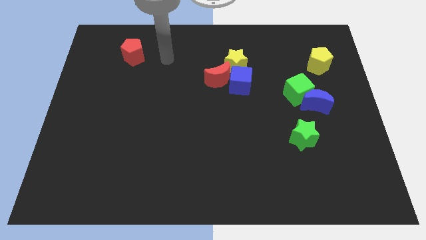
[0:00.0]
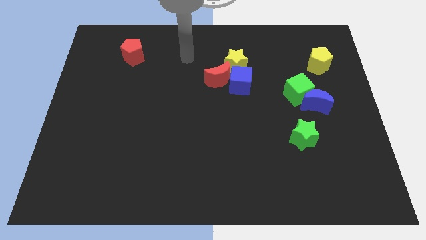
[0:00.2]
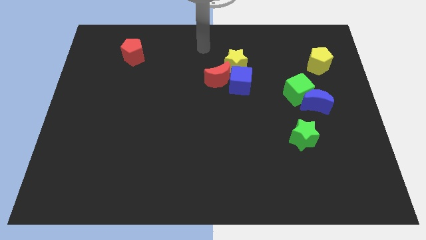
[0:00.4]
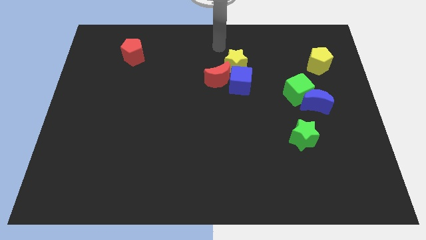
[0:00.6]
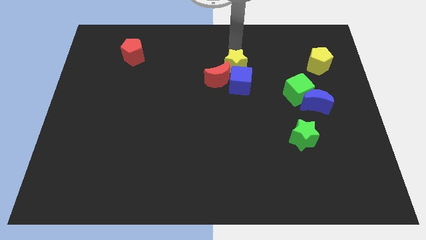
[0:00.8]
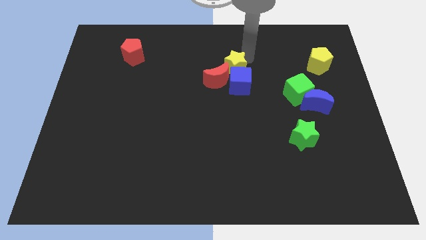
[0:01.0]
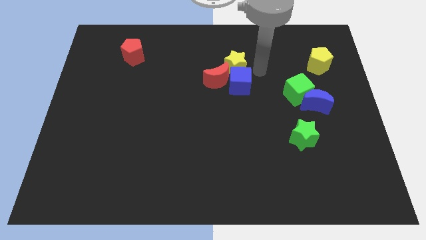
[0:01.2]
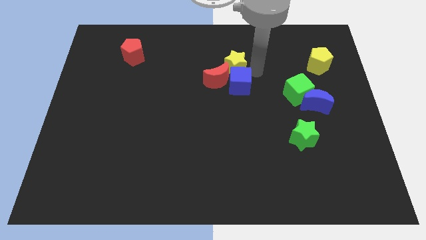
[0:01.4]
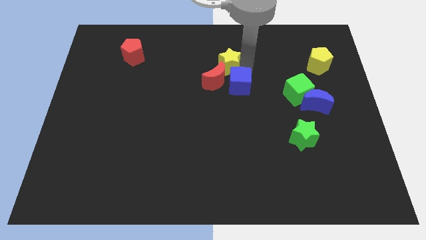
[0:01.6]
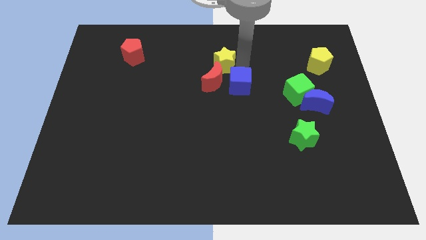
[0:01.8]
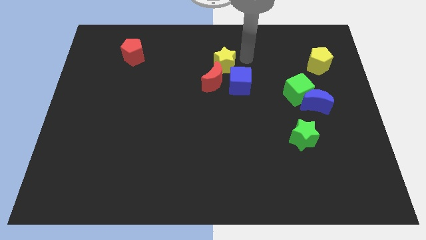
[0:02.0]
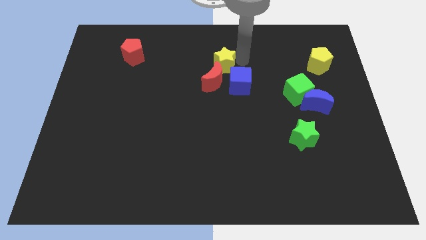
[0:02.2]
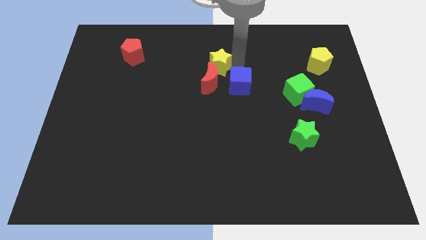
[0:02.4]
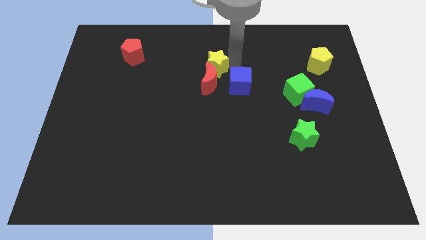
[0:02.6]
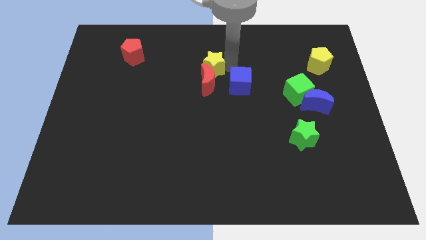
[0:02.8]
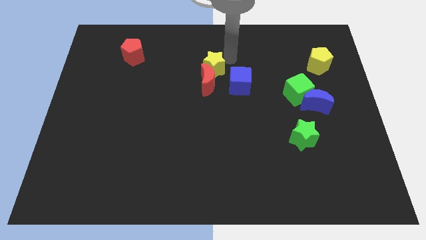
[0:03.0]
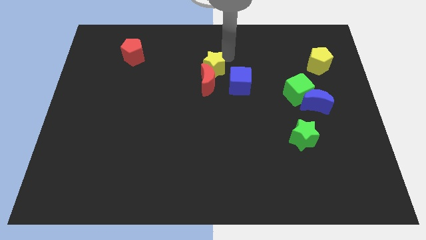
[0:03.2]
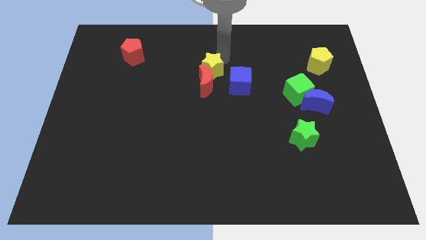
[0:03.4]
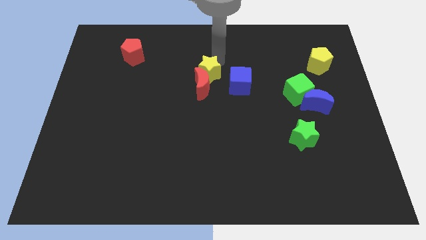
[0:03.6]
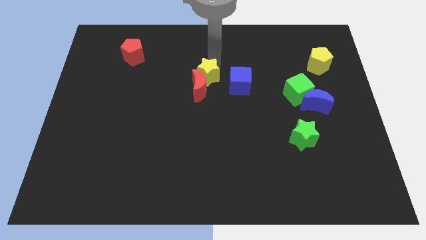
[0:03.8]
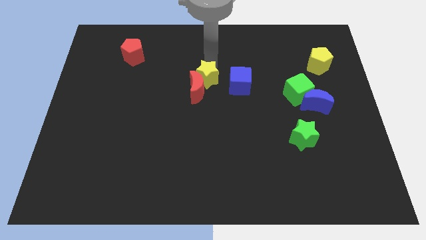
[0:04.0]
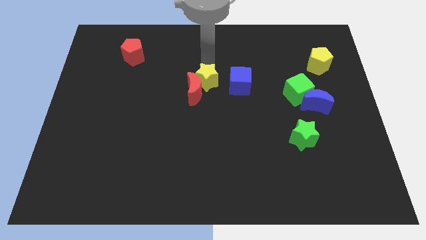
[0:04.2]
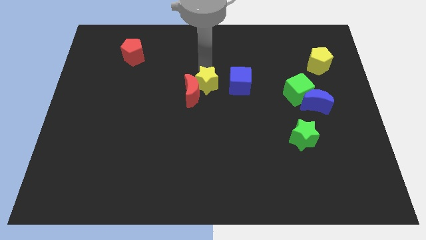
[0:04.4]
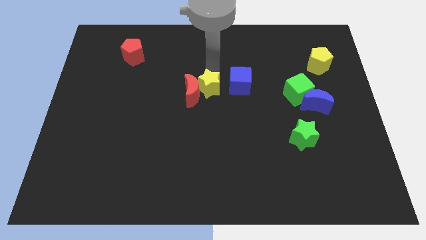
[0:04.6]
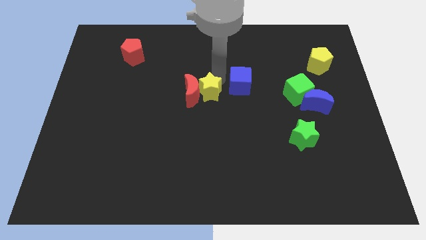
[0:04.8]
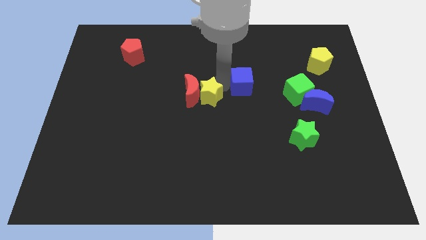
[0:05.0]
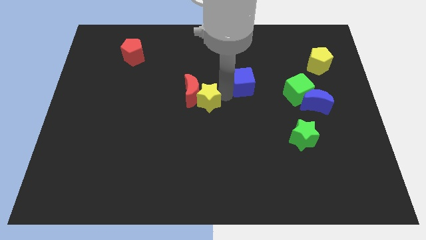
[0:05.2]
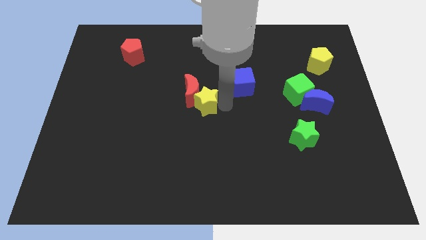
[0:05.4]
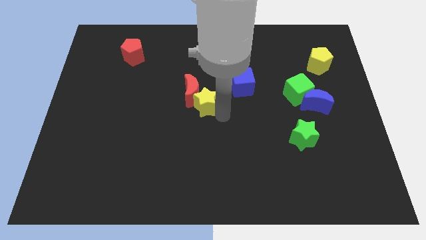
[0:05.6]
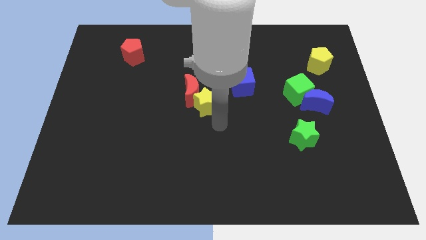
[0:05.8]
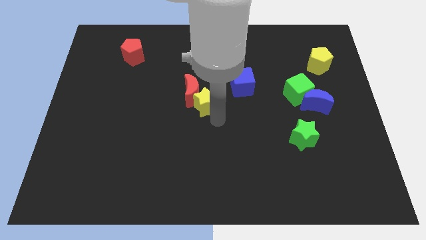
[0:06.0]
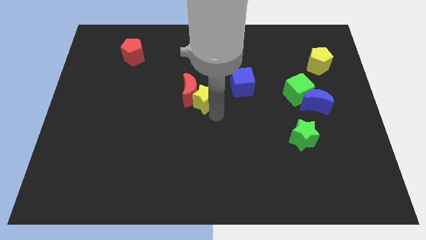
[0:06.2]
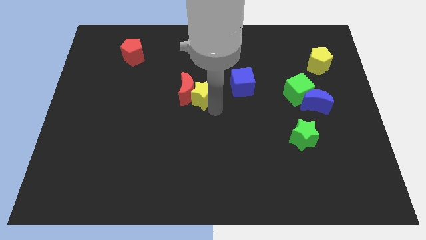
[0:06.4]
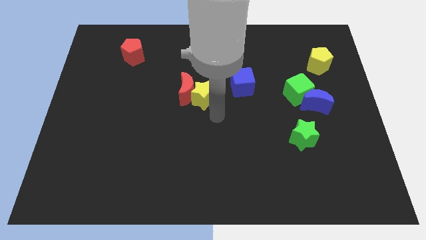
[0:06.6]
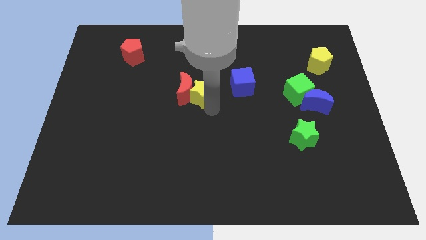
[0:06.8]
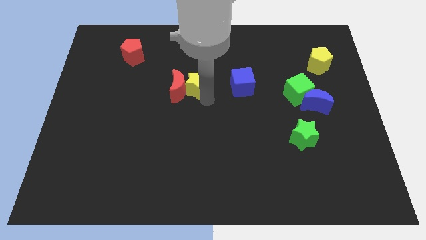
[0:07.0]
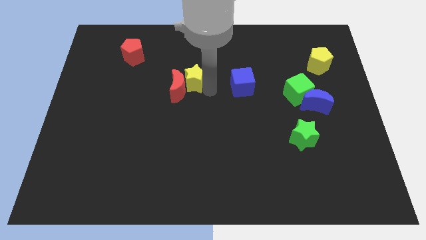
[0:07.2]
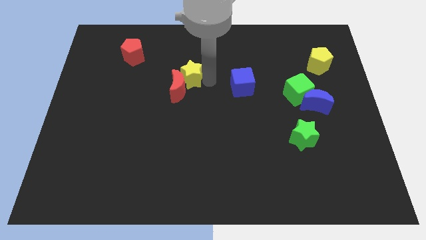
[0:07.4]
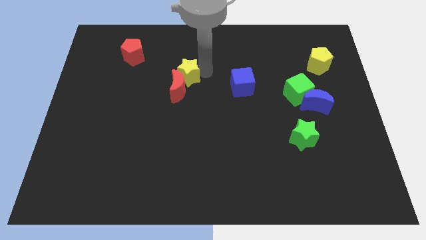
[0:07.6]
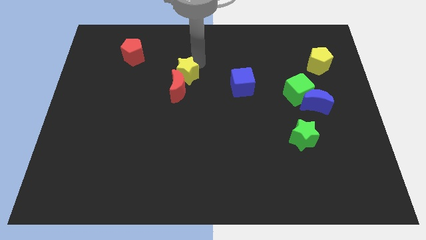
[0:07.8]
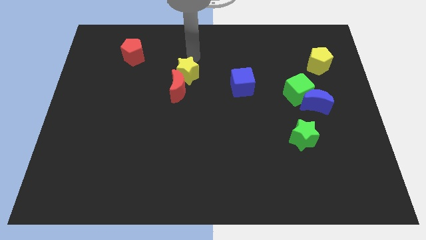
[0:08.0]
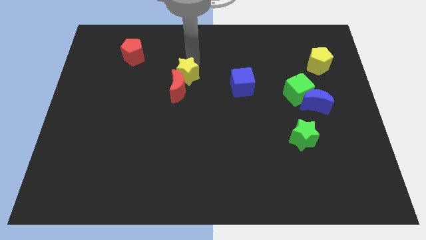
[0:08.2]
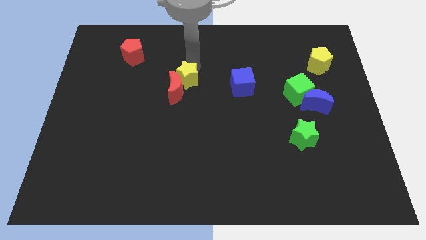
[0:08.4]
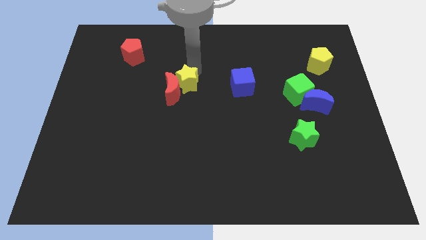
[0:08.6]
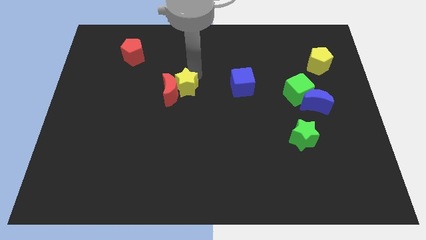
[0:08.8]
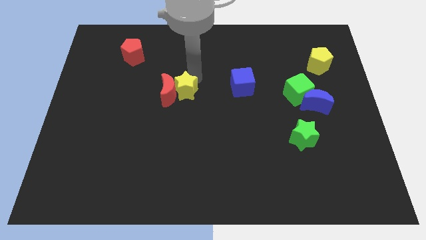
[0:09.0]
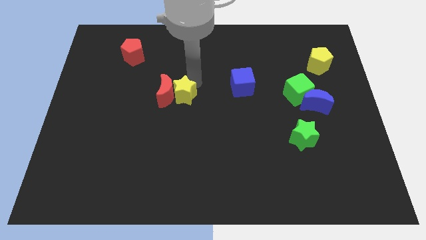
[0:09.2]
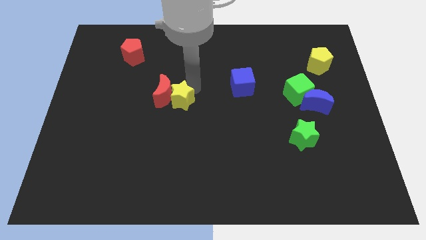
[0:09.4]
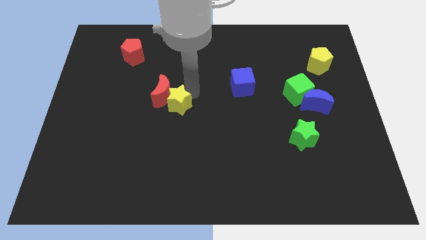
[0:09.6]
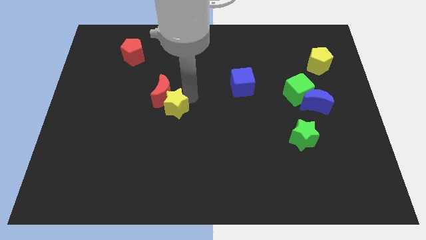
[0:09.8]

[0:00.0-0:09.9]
slide the yellow star down and to the left diagonally

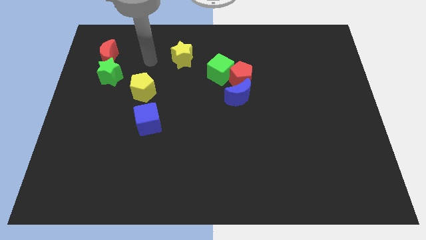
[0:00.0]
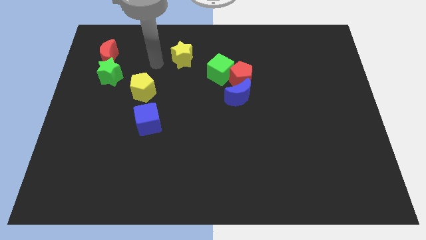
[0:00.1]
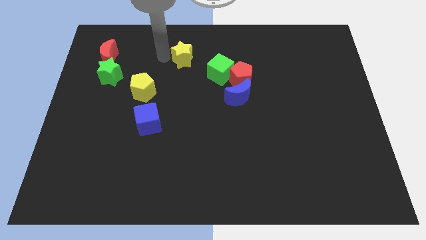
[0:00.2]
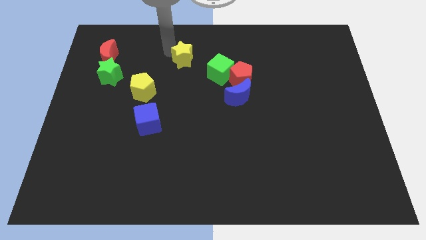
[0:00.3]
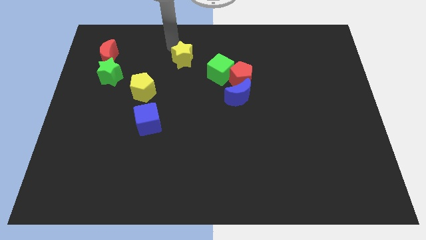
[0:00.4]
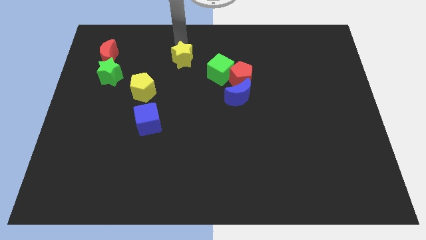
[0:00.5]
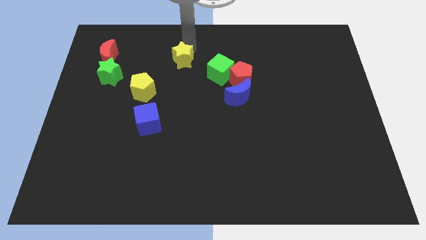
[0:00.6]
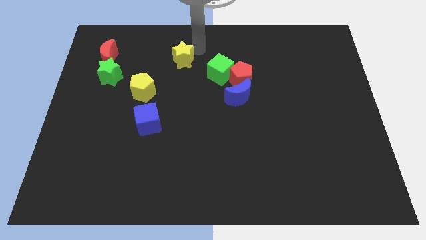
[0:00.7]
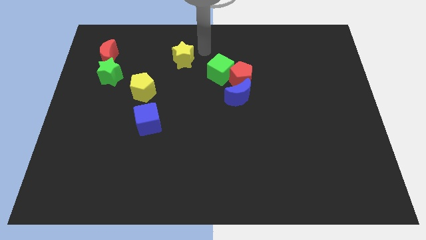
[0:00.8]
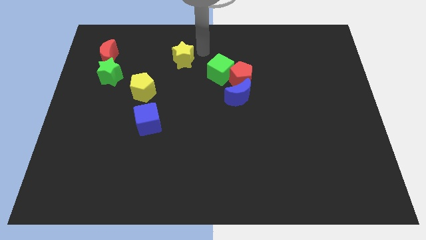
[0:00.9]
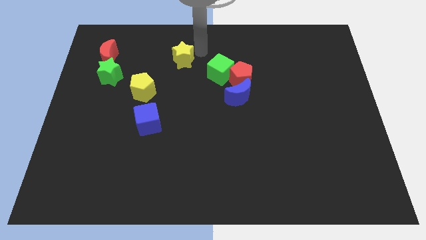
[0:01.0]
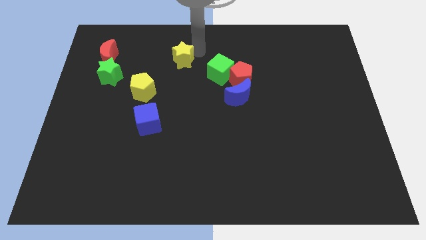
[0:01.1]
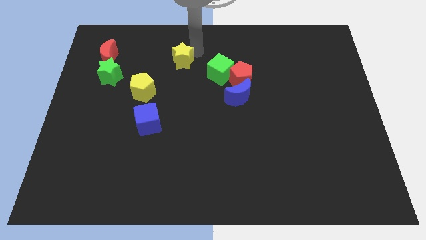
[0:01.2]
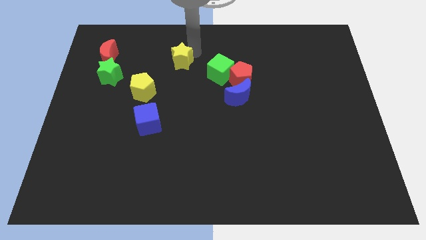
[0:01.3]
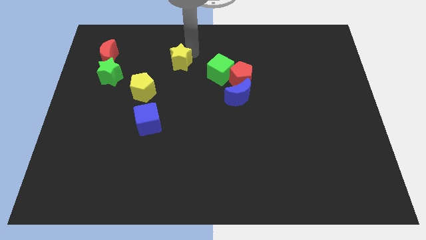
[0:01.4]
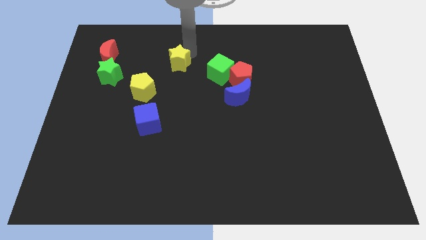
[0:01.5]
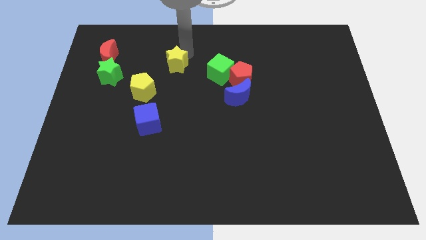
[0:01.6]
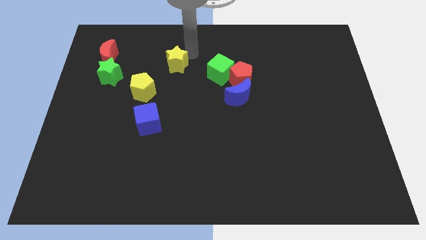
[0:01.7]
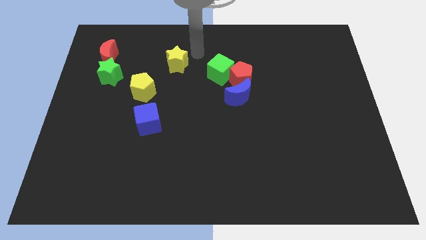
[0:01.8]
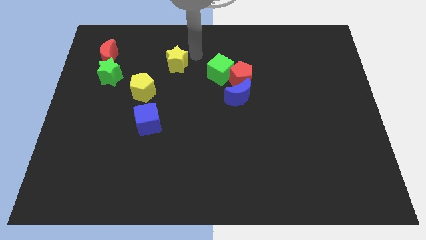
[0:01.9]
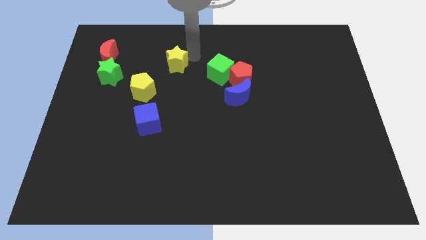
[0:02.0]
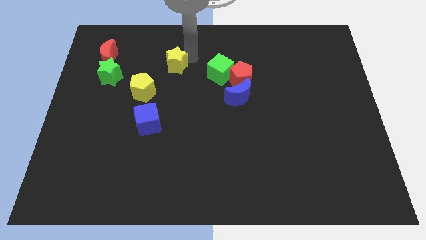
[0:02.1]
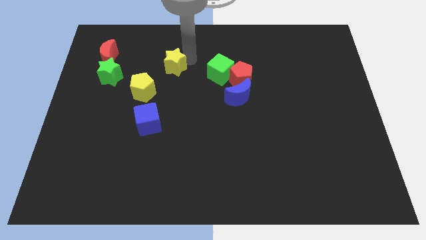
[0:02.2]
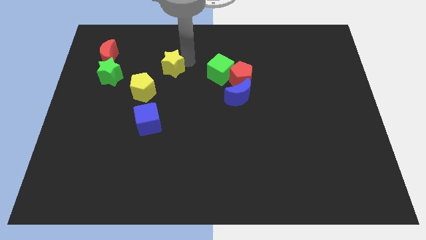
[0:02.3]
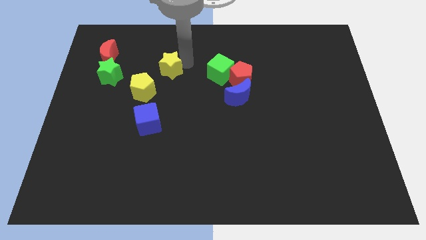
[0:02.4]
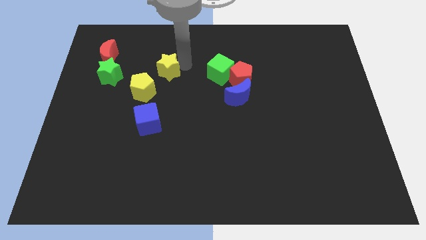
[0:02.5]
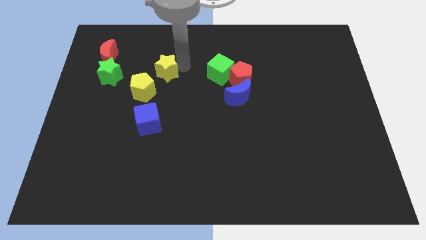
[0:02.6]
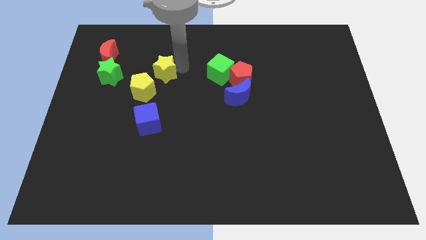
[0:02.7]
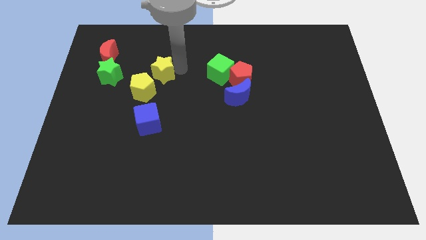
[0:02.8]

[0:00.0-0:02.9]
move the yellow star diagonally down and left somewhat

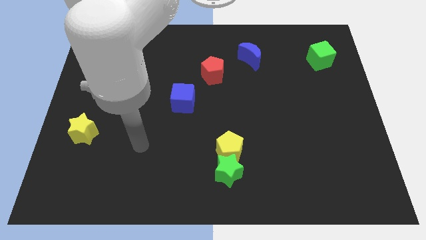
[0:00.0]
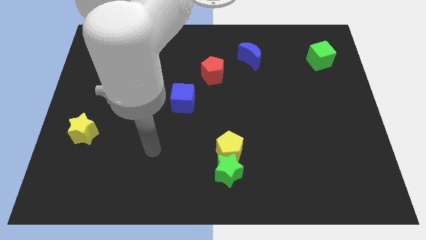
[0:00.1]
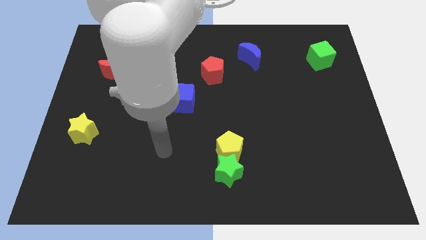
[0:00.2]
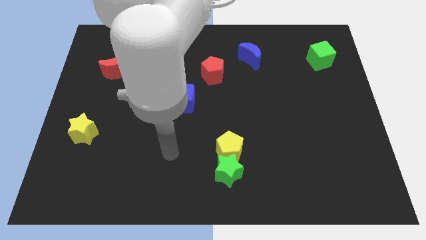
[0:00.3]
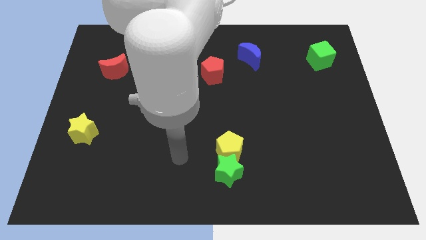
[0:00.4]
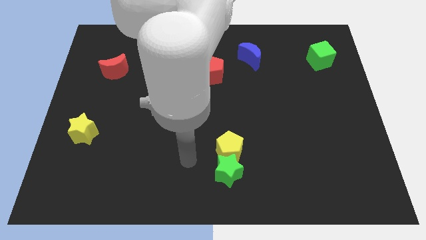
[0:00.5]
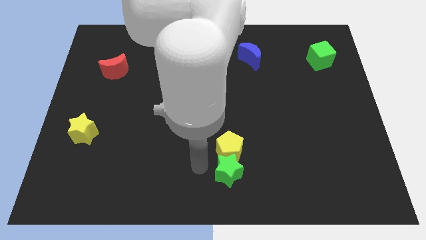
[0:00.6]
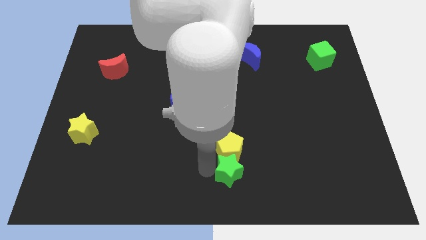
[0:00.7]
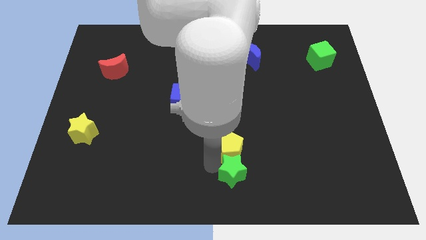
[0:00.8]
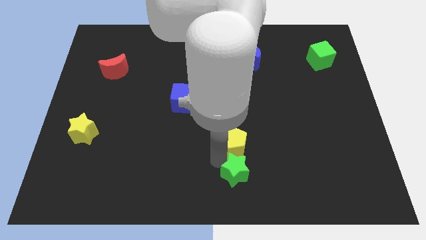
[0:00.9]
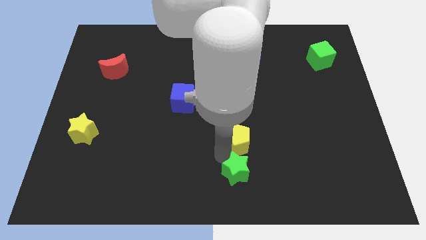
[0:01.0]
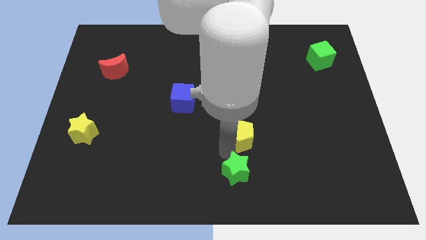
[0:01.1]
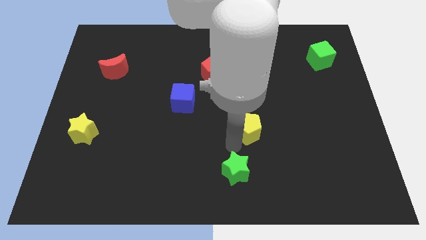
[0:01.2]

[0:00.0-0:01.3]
slightly slide the yellow pentagon diagonally up and right
